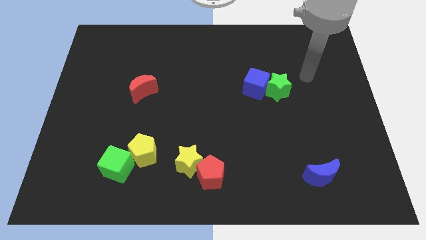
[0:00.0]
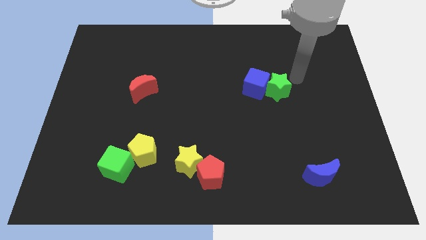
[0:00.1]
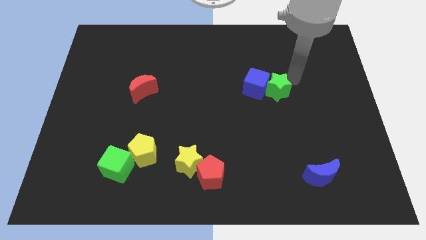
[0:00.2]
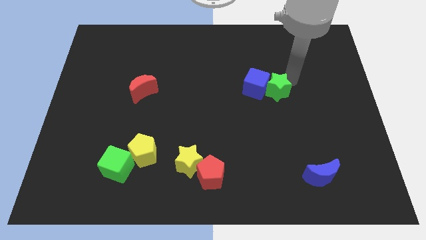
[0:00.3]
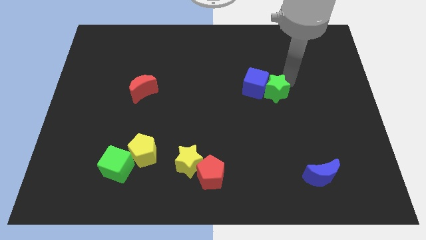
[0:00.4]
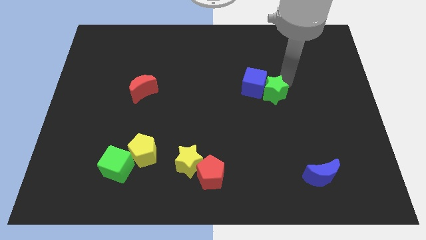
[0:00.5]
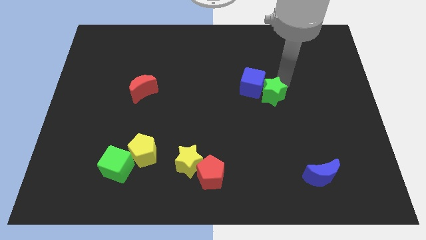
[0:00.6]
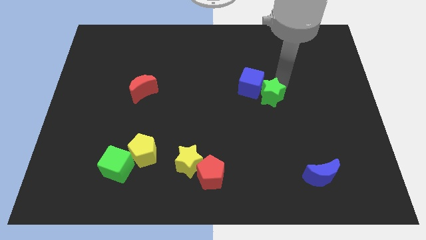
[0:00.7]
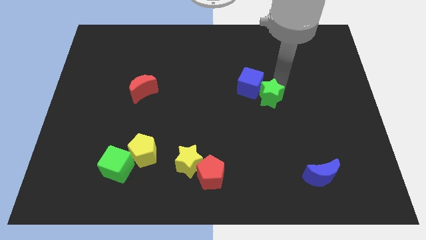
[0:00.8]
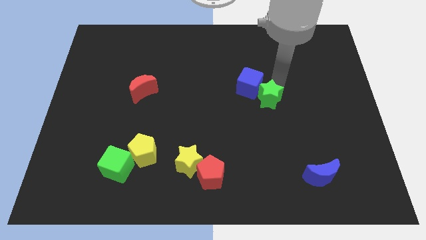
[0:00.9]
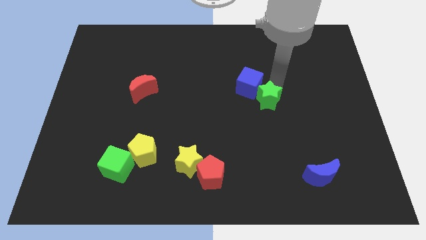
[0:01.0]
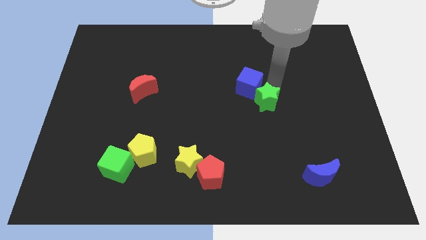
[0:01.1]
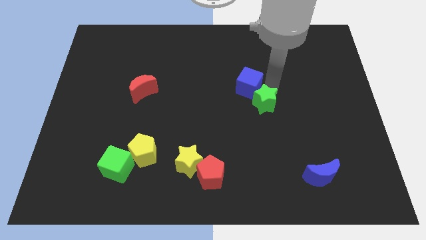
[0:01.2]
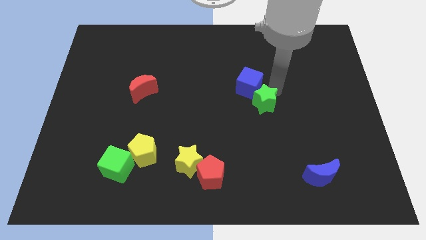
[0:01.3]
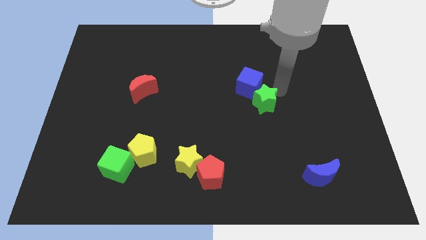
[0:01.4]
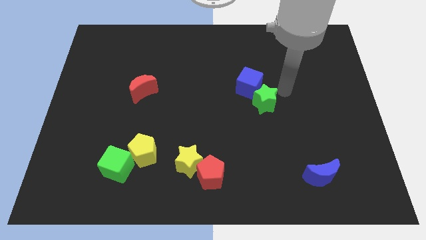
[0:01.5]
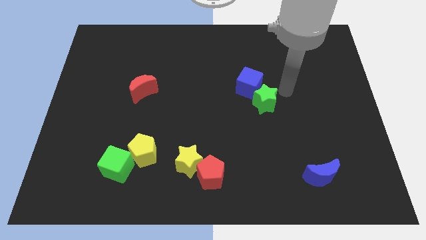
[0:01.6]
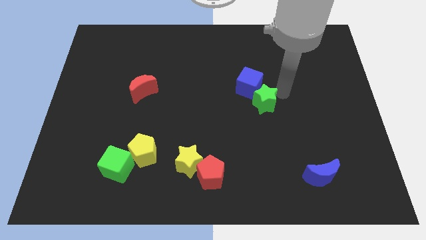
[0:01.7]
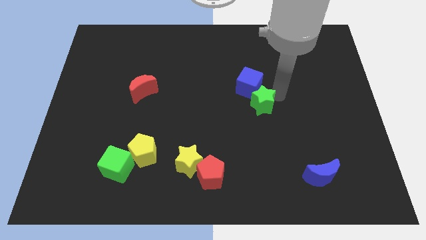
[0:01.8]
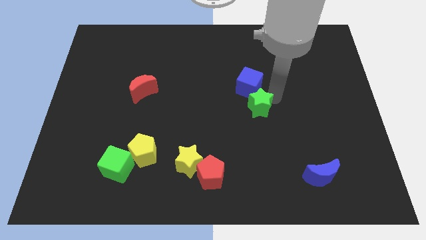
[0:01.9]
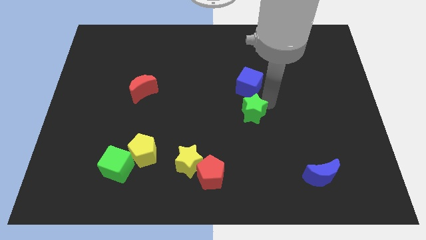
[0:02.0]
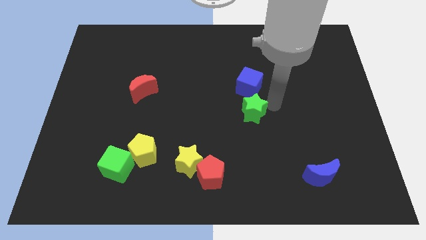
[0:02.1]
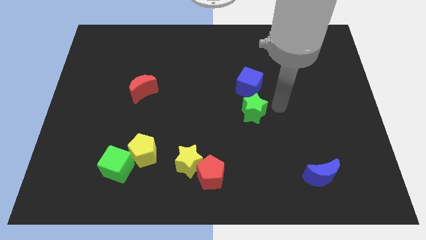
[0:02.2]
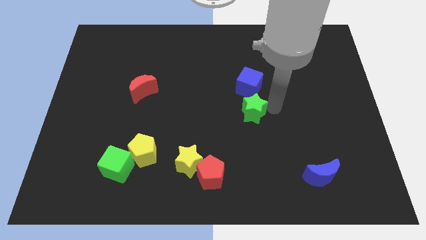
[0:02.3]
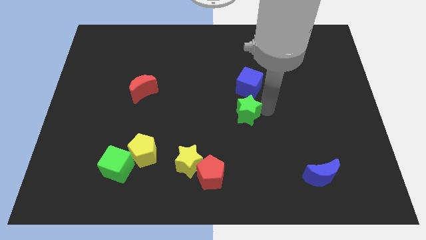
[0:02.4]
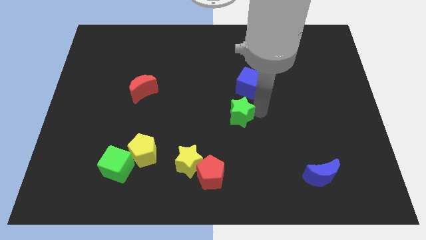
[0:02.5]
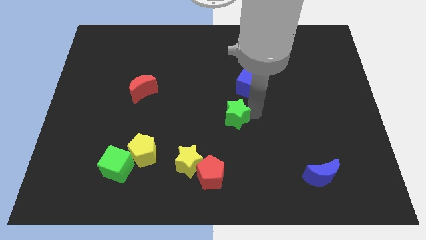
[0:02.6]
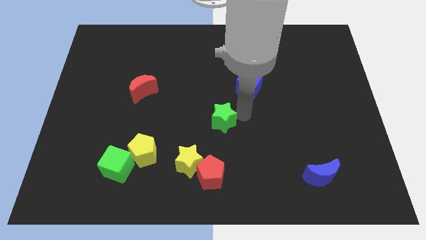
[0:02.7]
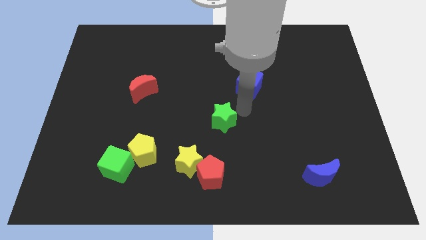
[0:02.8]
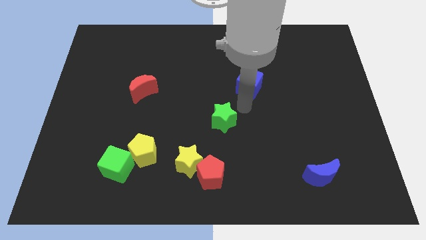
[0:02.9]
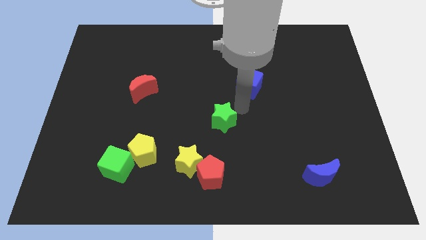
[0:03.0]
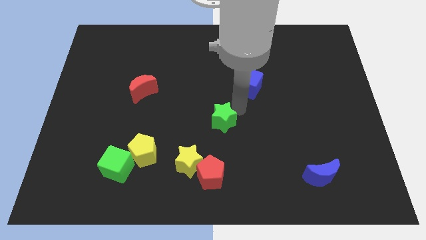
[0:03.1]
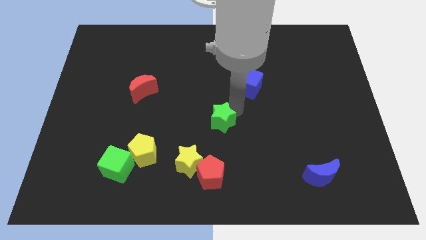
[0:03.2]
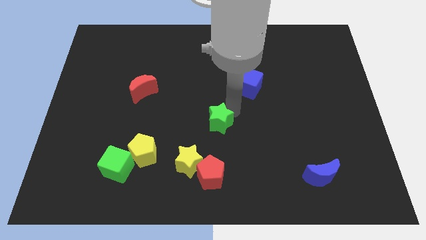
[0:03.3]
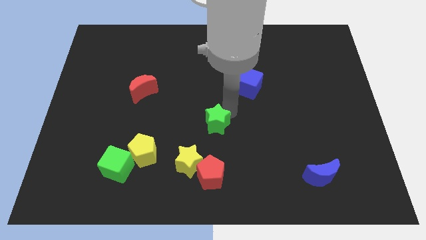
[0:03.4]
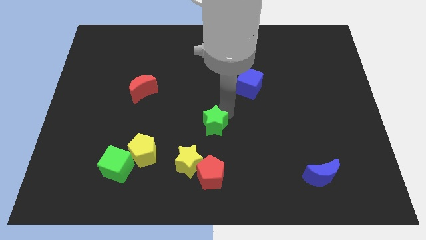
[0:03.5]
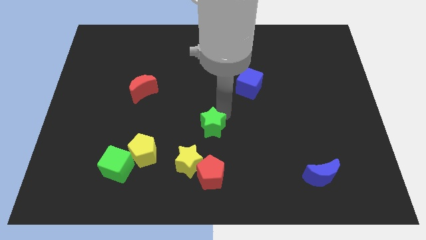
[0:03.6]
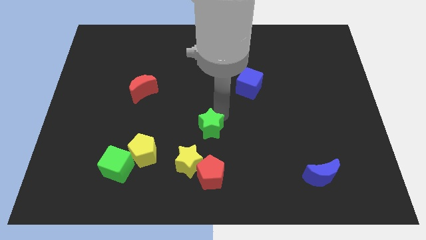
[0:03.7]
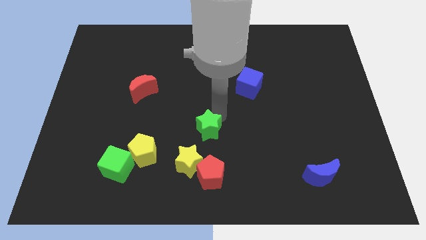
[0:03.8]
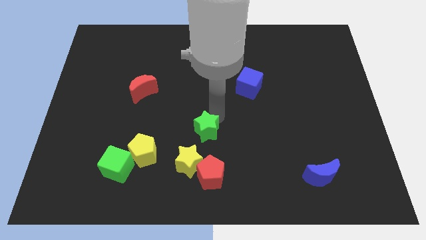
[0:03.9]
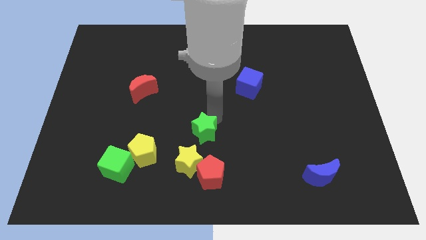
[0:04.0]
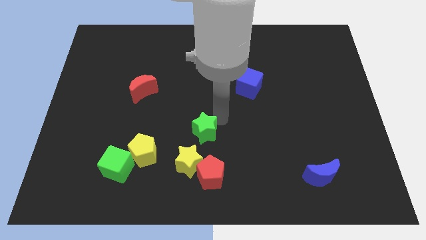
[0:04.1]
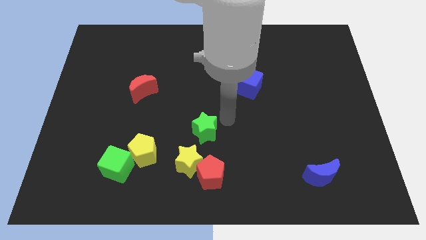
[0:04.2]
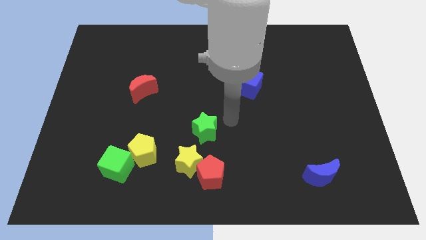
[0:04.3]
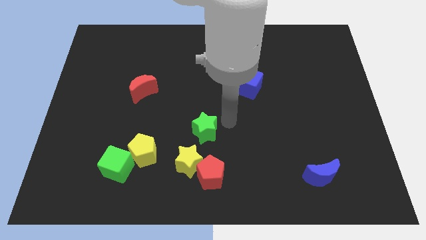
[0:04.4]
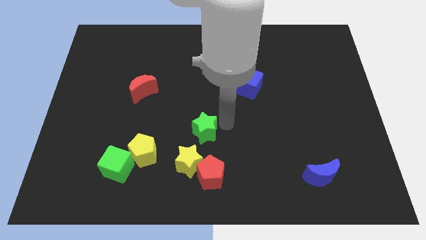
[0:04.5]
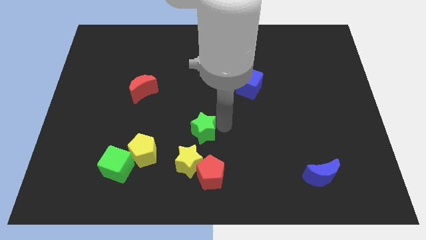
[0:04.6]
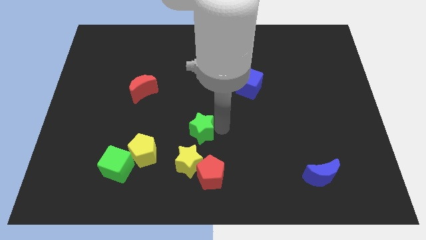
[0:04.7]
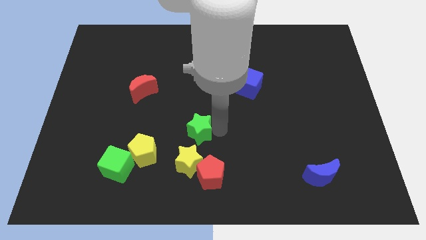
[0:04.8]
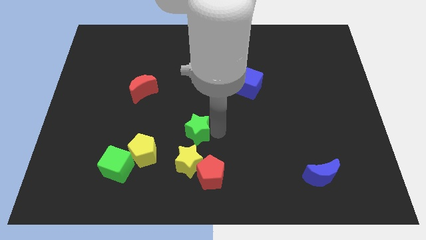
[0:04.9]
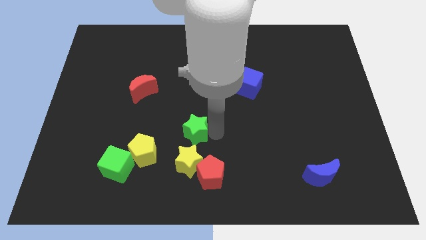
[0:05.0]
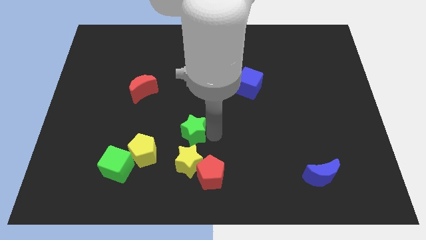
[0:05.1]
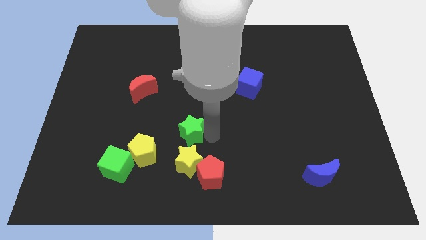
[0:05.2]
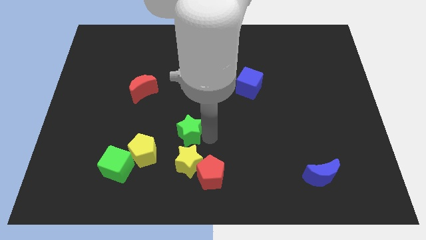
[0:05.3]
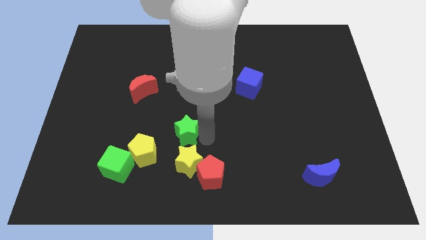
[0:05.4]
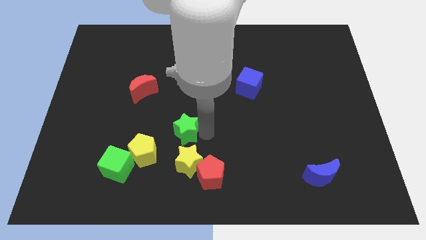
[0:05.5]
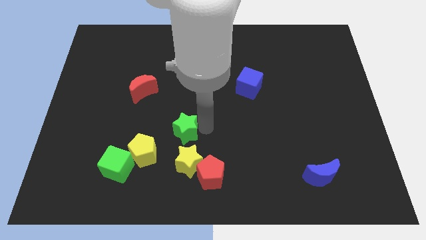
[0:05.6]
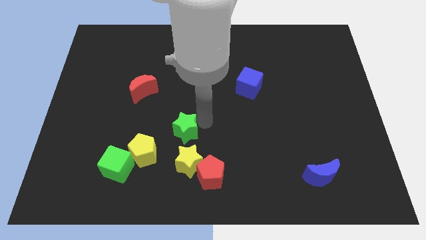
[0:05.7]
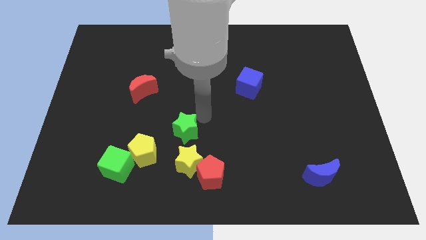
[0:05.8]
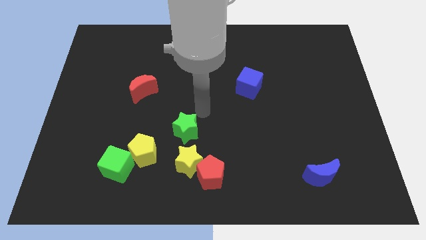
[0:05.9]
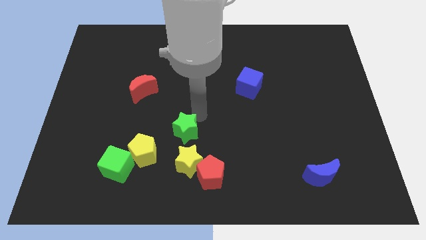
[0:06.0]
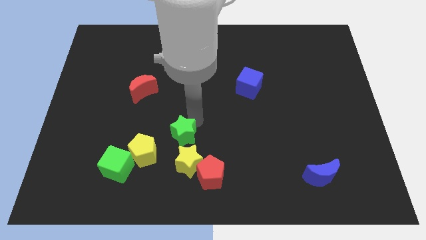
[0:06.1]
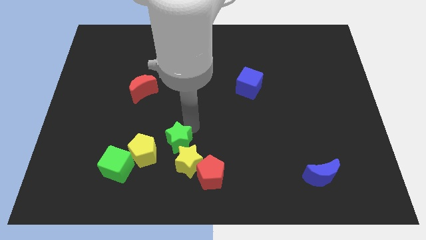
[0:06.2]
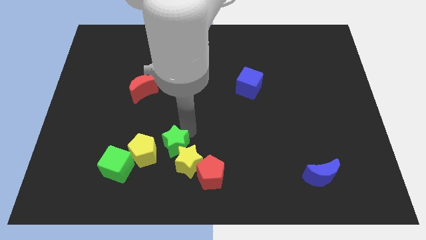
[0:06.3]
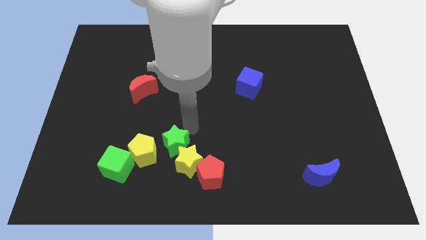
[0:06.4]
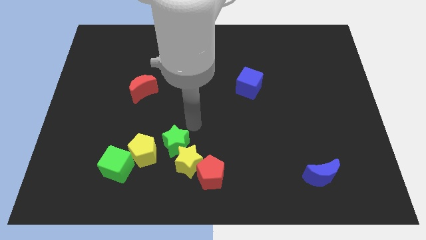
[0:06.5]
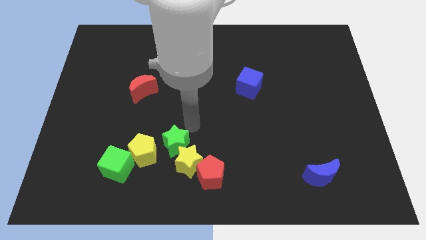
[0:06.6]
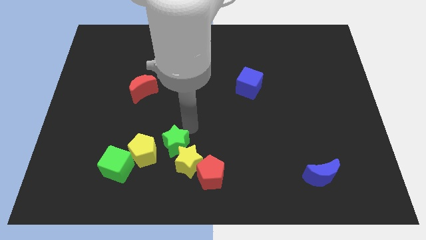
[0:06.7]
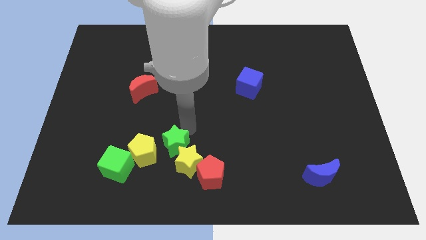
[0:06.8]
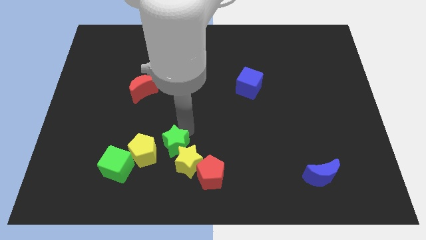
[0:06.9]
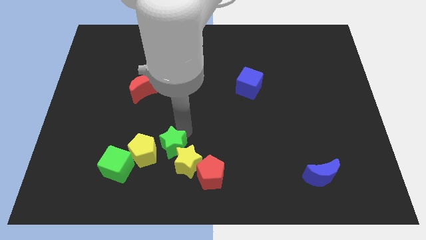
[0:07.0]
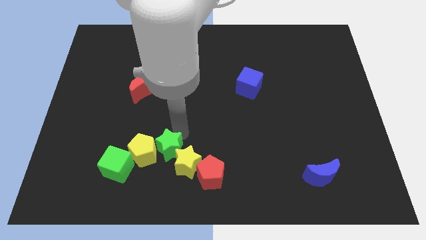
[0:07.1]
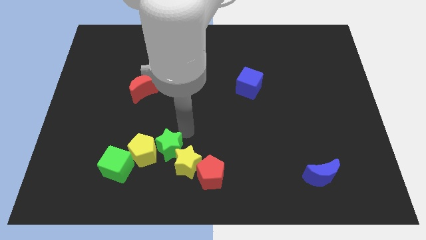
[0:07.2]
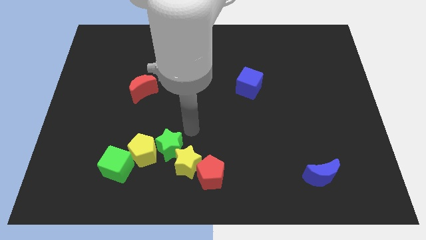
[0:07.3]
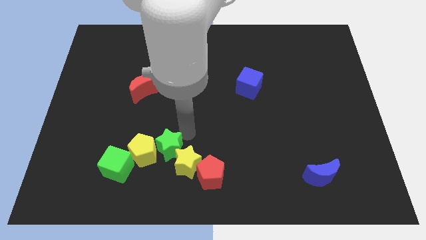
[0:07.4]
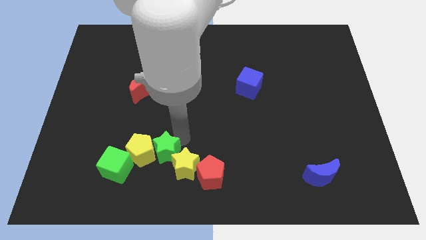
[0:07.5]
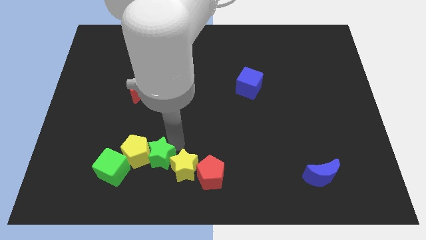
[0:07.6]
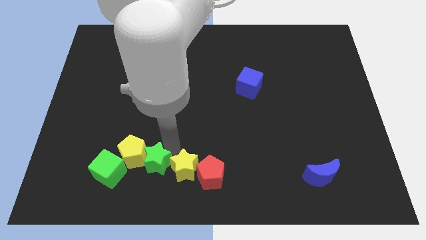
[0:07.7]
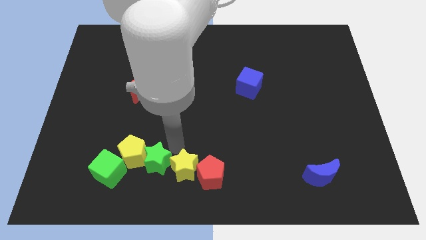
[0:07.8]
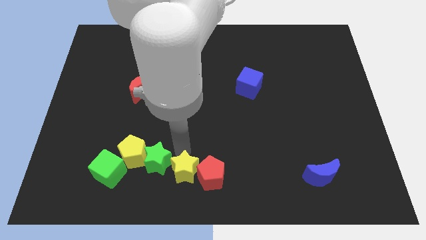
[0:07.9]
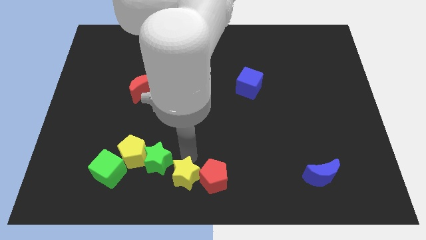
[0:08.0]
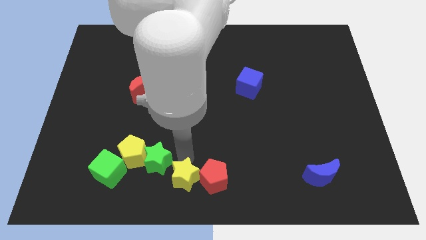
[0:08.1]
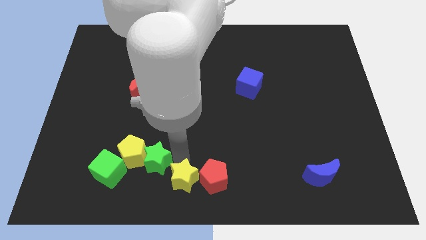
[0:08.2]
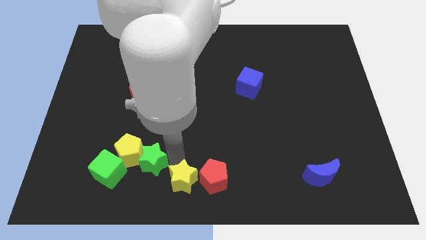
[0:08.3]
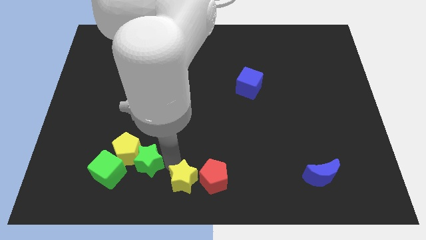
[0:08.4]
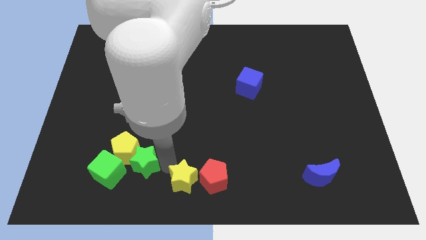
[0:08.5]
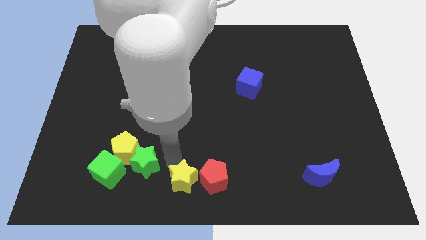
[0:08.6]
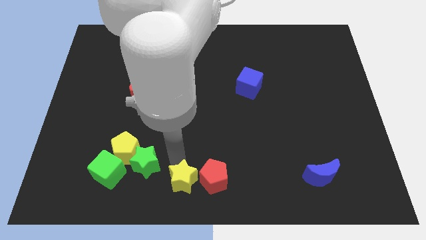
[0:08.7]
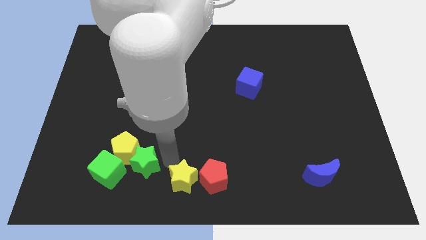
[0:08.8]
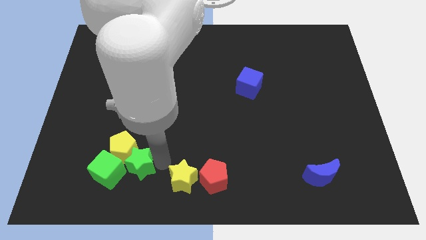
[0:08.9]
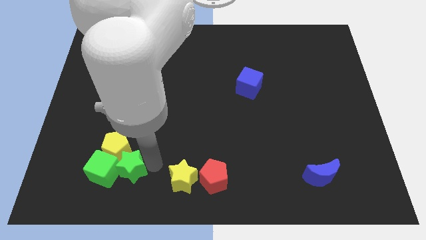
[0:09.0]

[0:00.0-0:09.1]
put the green star close to the green cube
